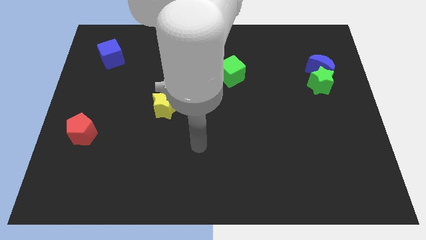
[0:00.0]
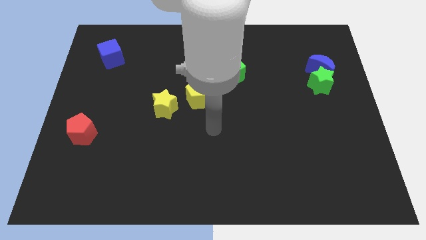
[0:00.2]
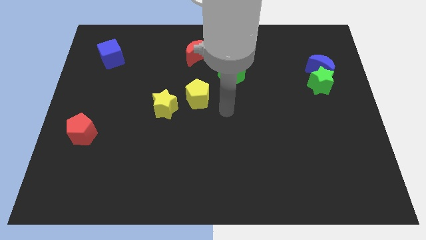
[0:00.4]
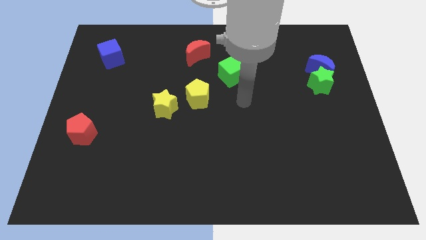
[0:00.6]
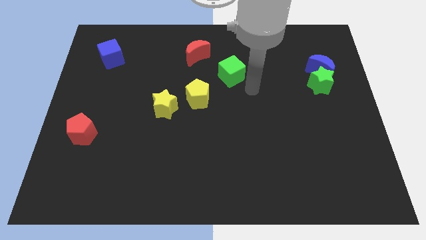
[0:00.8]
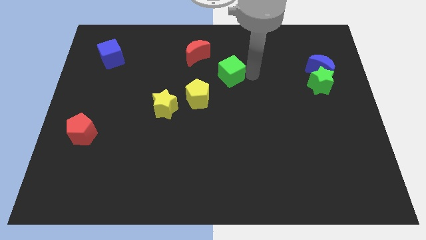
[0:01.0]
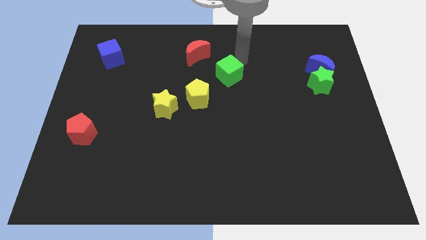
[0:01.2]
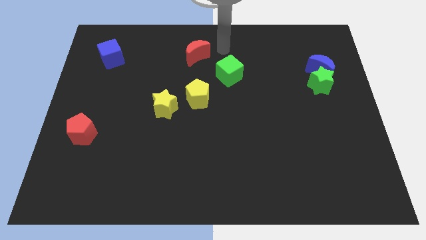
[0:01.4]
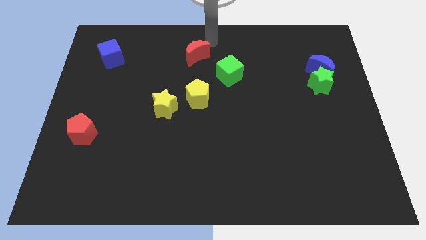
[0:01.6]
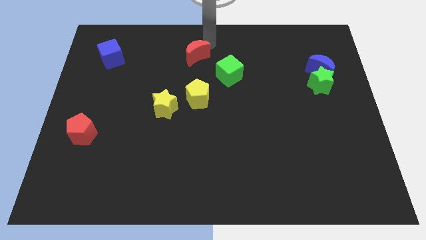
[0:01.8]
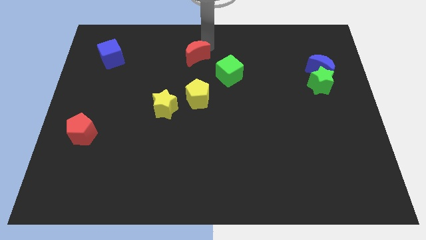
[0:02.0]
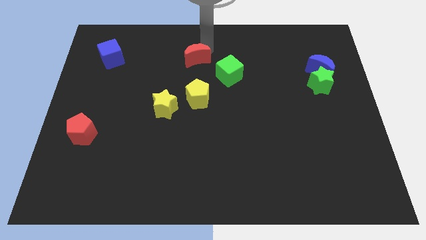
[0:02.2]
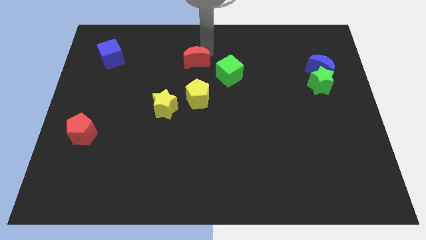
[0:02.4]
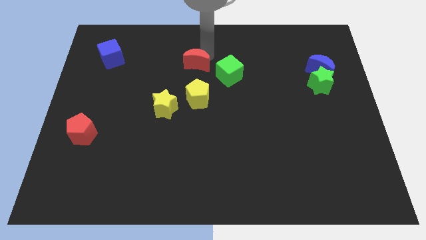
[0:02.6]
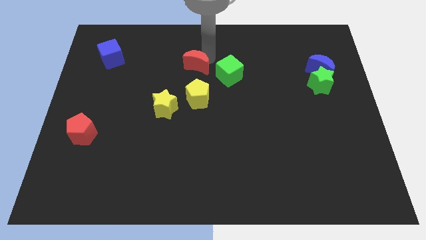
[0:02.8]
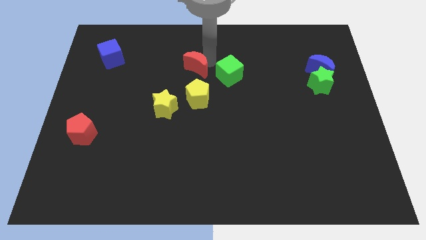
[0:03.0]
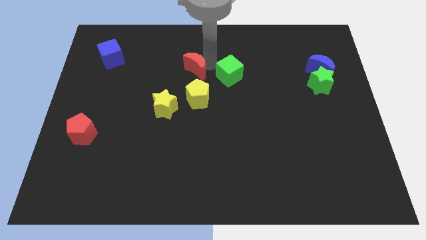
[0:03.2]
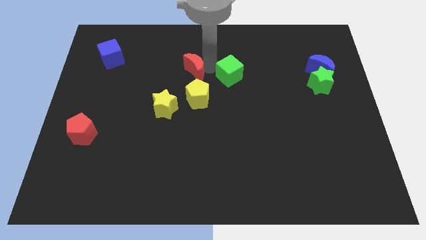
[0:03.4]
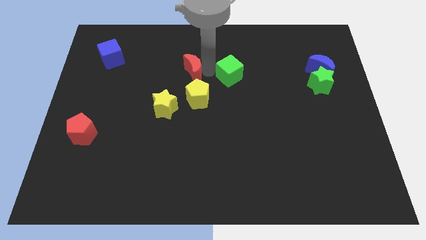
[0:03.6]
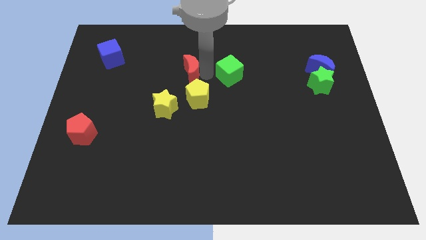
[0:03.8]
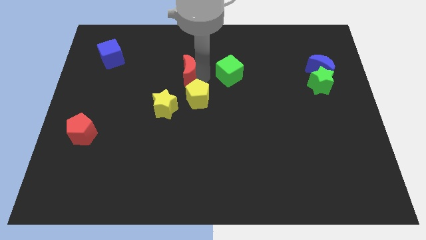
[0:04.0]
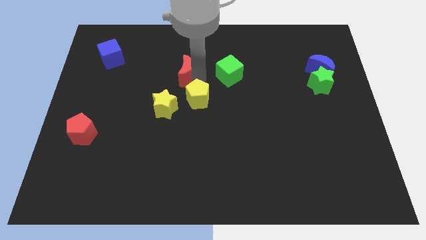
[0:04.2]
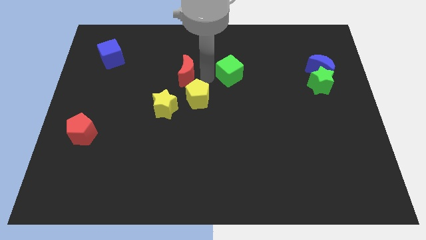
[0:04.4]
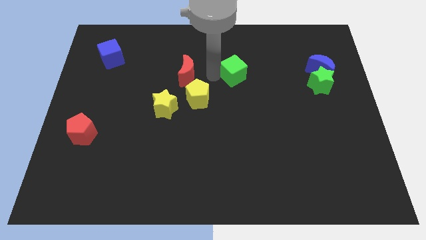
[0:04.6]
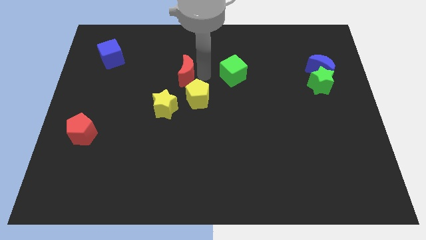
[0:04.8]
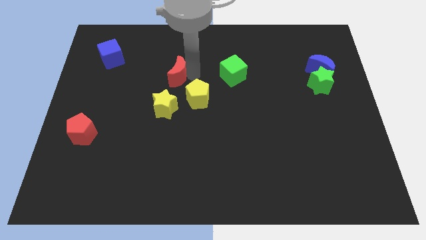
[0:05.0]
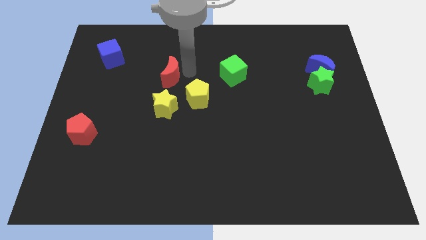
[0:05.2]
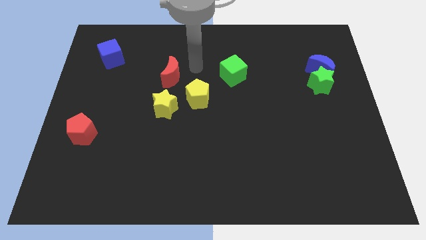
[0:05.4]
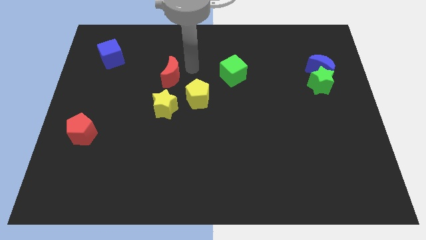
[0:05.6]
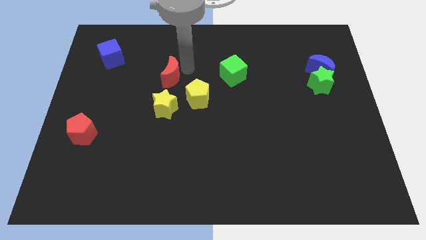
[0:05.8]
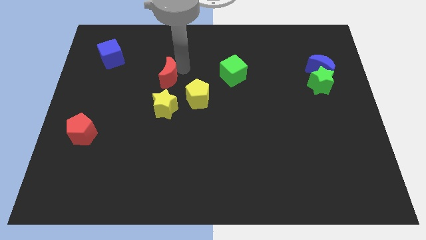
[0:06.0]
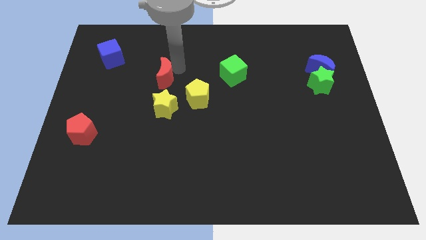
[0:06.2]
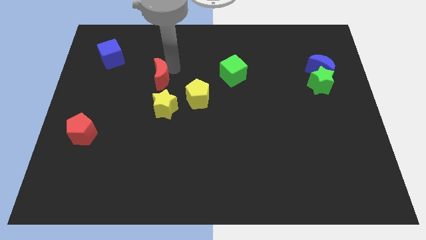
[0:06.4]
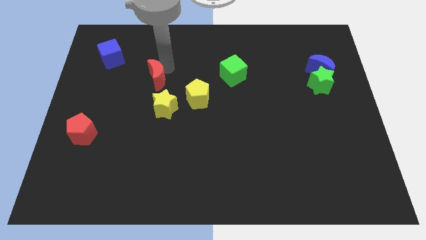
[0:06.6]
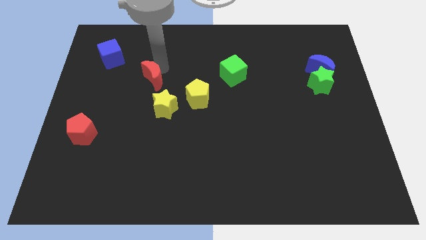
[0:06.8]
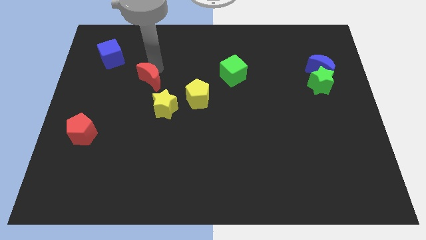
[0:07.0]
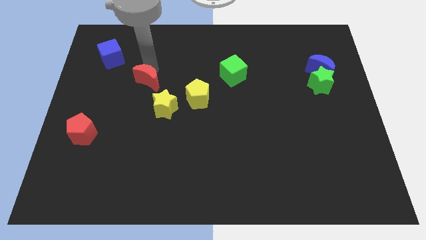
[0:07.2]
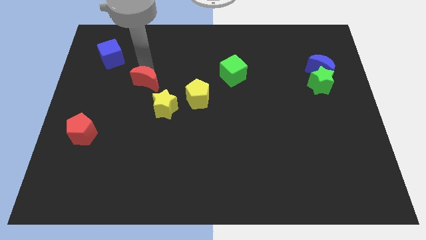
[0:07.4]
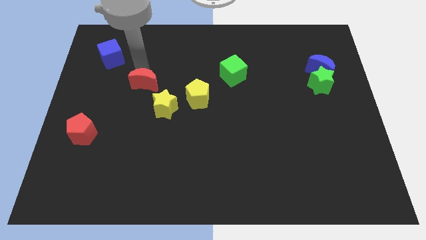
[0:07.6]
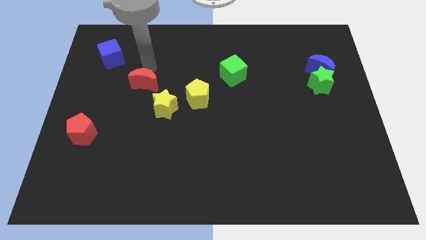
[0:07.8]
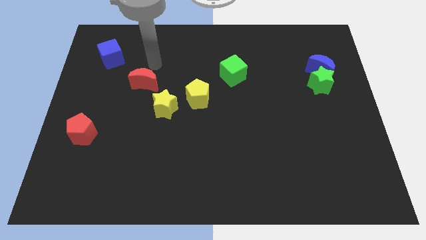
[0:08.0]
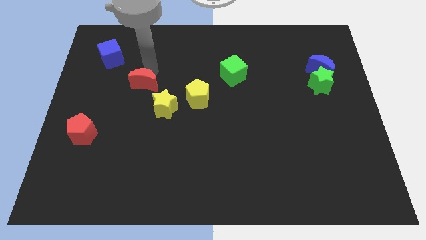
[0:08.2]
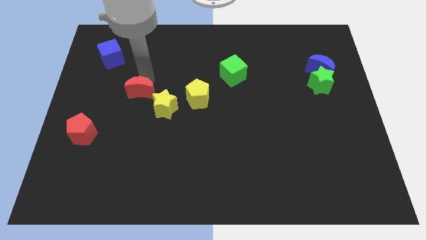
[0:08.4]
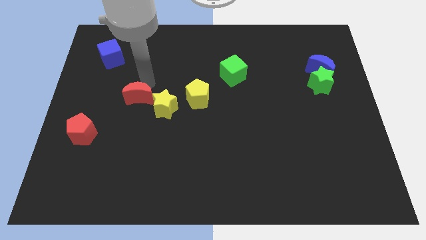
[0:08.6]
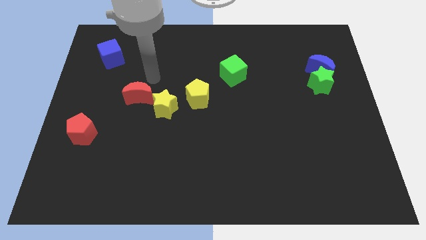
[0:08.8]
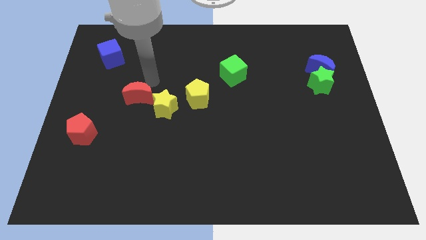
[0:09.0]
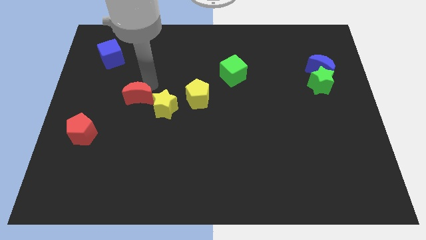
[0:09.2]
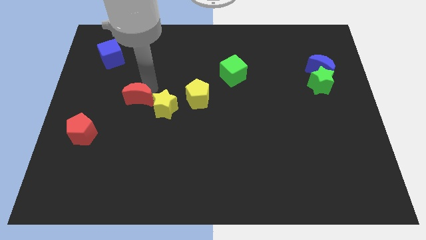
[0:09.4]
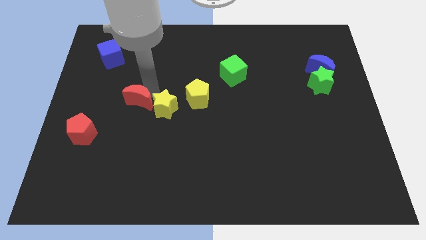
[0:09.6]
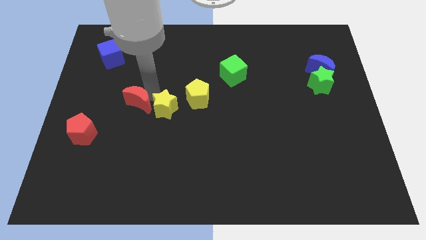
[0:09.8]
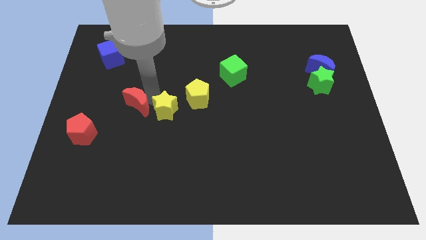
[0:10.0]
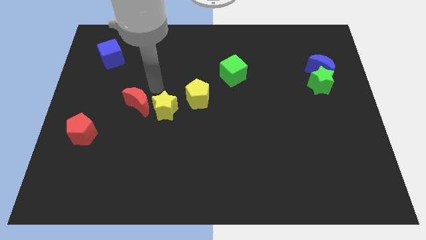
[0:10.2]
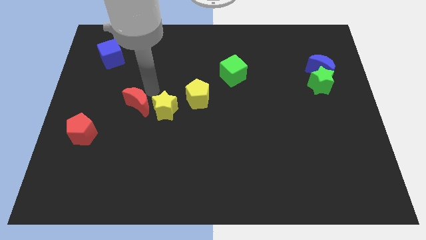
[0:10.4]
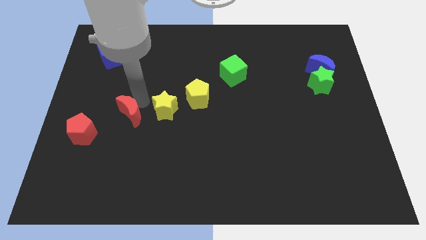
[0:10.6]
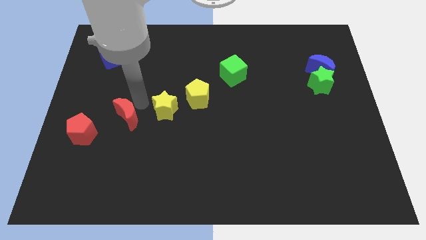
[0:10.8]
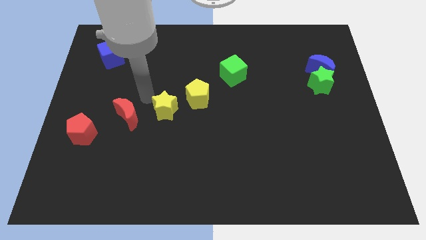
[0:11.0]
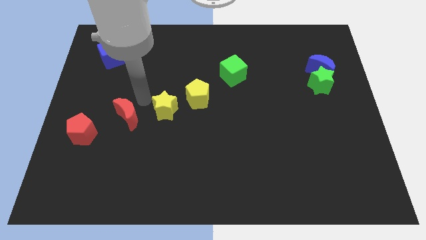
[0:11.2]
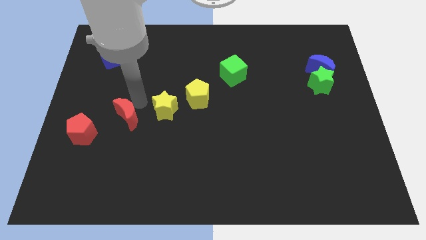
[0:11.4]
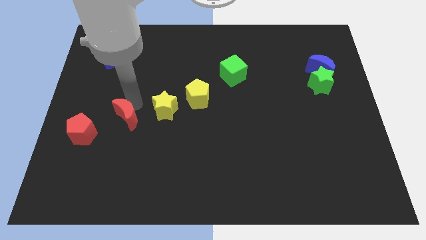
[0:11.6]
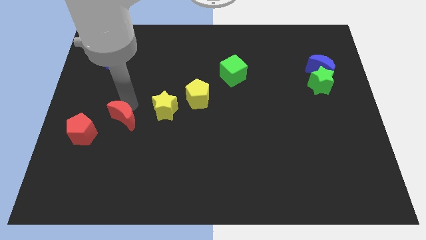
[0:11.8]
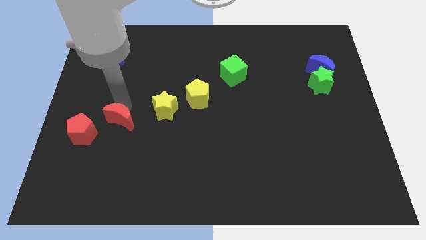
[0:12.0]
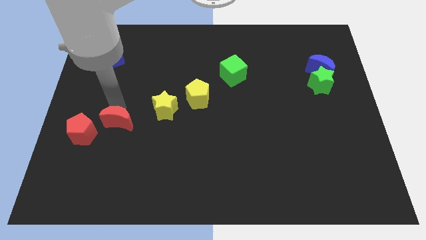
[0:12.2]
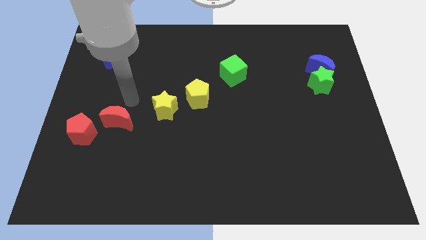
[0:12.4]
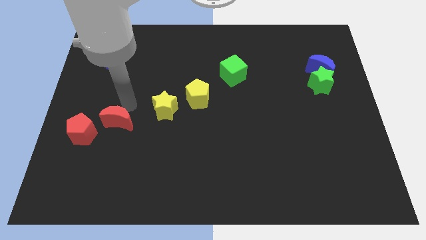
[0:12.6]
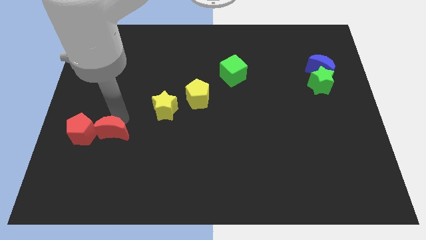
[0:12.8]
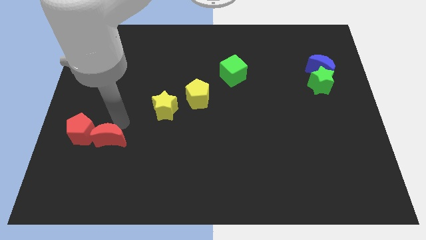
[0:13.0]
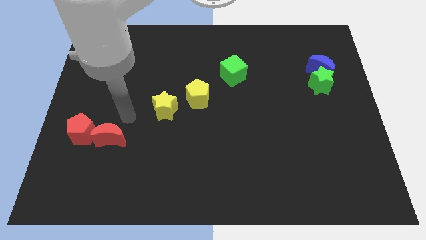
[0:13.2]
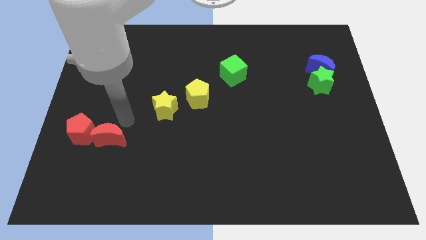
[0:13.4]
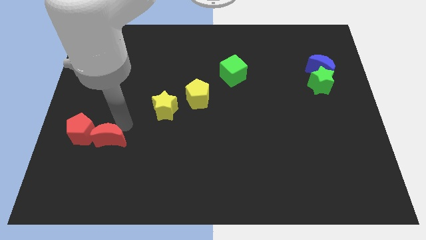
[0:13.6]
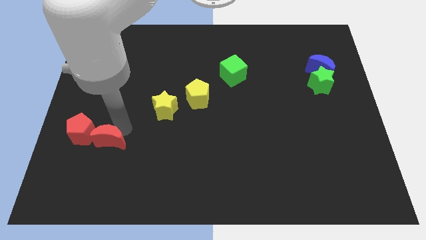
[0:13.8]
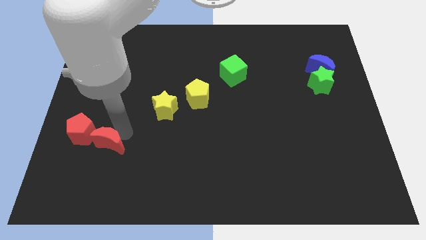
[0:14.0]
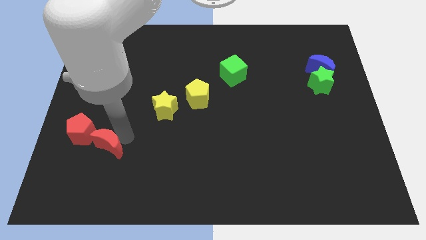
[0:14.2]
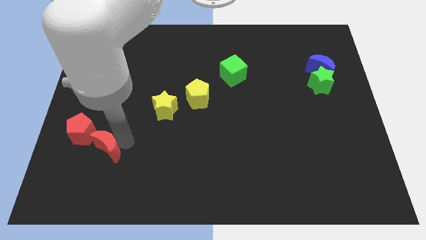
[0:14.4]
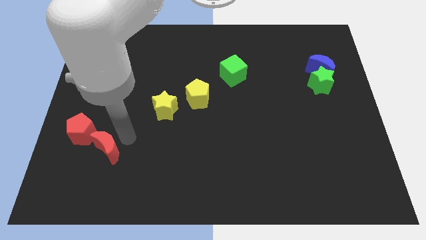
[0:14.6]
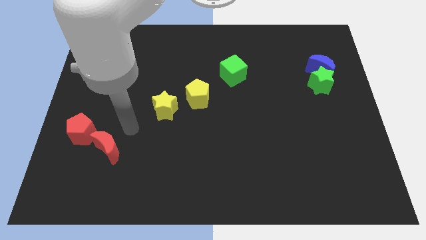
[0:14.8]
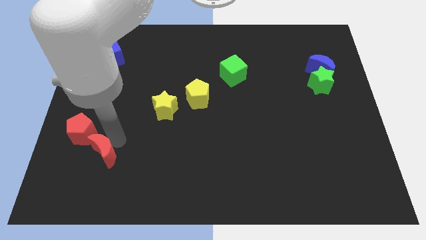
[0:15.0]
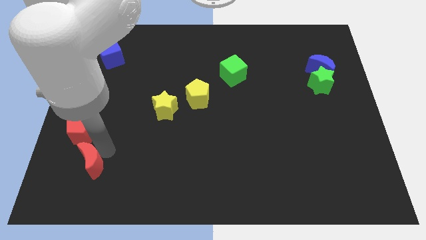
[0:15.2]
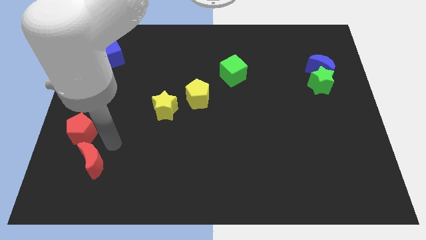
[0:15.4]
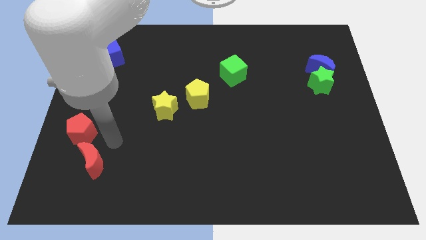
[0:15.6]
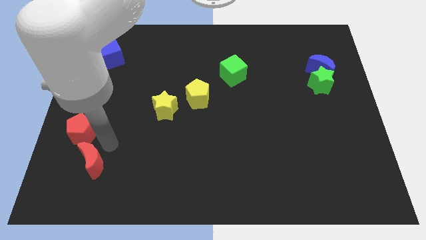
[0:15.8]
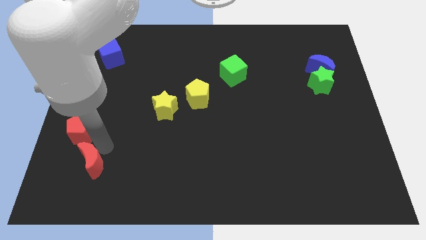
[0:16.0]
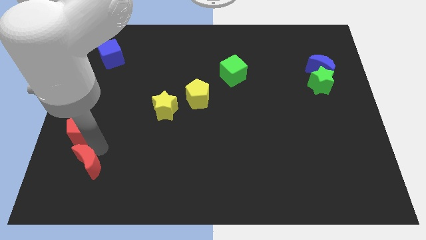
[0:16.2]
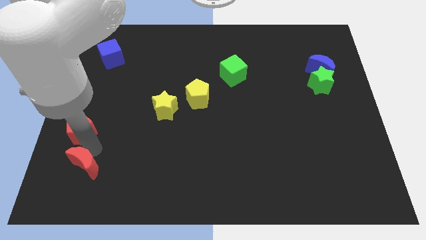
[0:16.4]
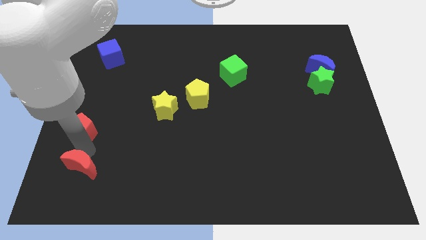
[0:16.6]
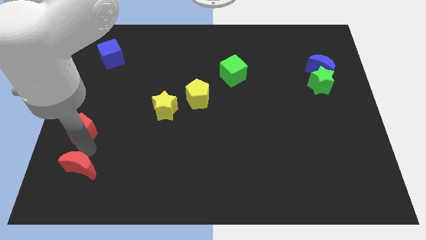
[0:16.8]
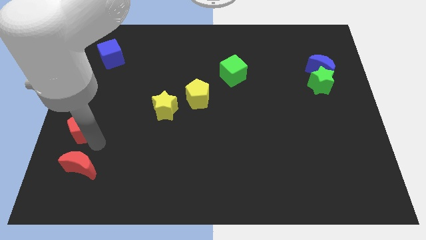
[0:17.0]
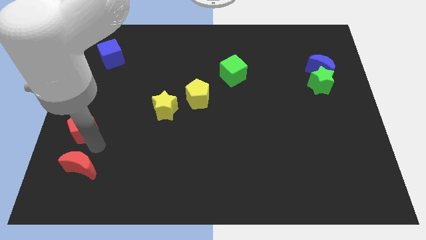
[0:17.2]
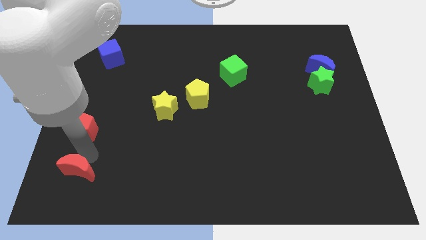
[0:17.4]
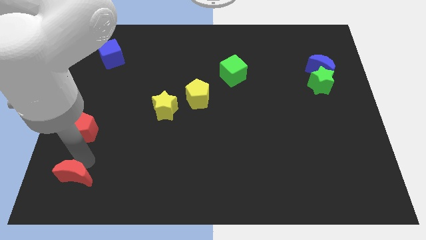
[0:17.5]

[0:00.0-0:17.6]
push the red moon to the bottom left
